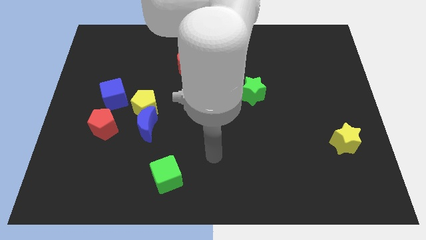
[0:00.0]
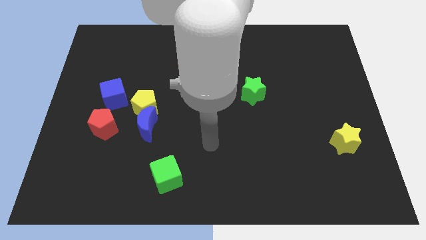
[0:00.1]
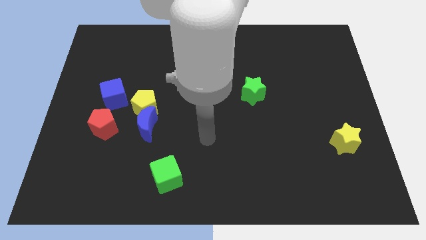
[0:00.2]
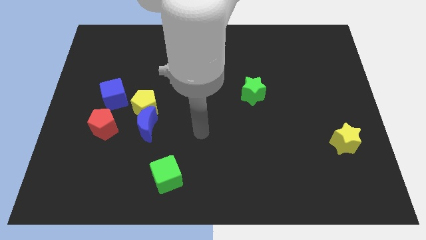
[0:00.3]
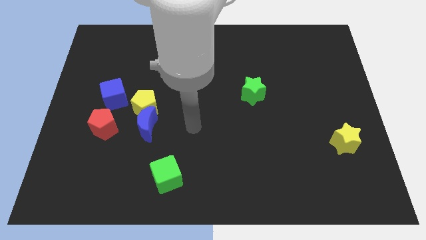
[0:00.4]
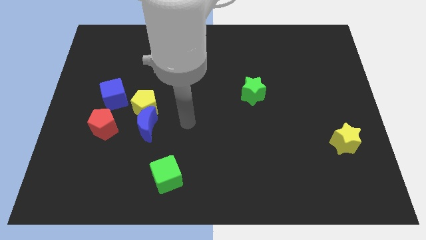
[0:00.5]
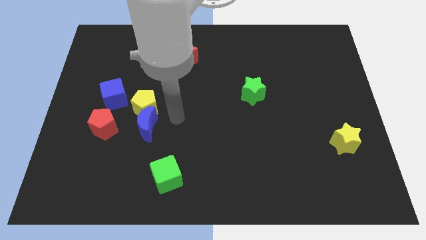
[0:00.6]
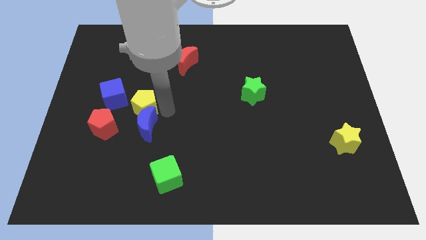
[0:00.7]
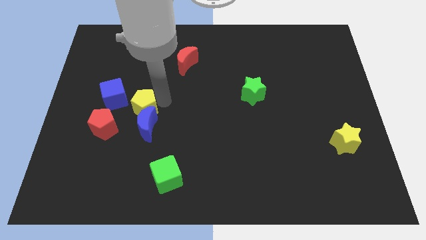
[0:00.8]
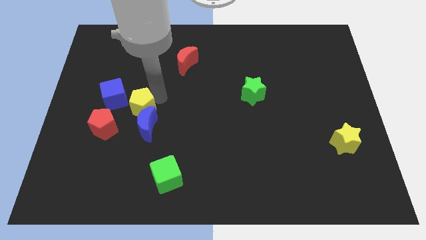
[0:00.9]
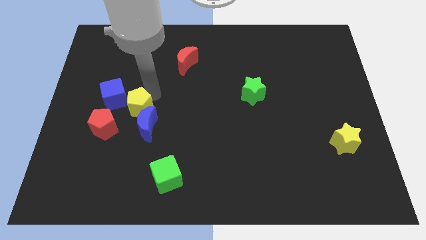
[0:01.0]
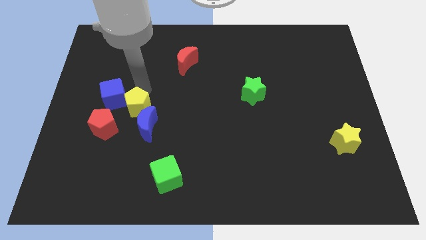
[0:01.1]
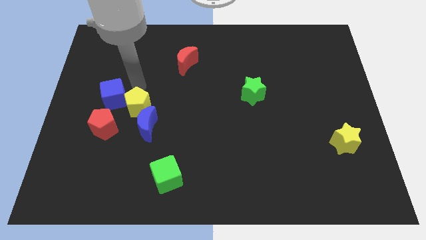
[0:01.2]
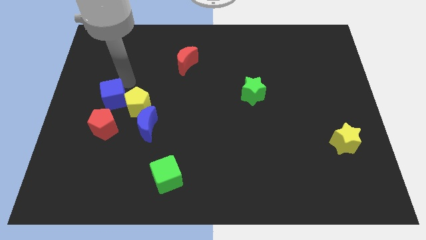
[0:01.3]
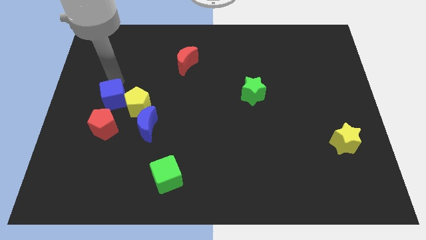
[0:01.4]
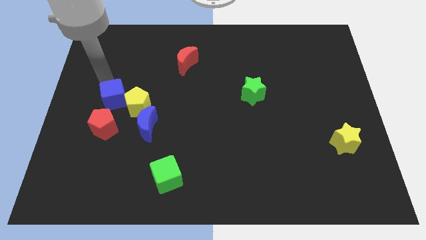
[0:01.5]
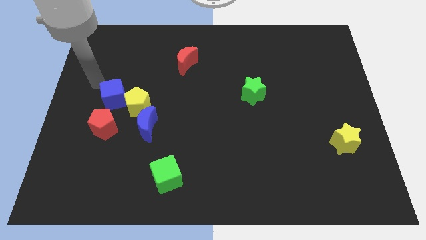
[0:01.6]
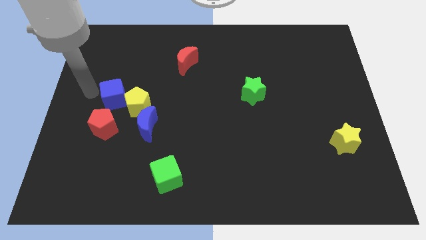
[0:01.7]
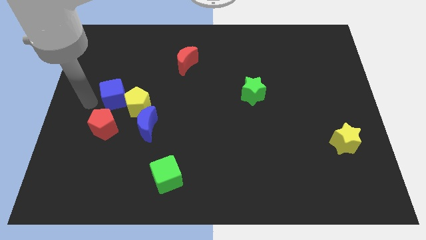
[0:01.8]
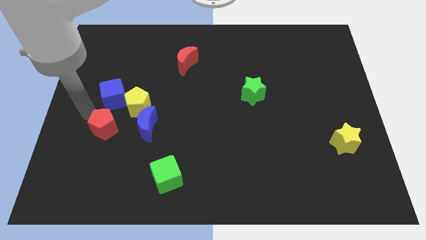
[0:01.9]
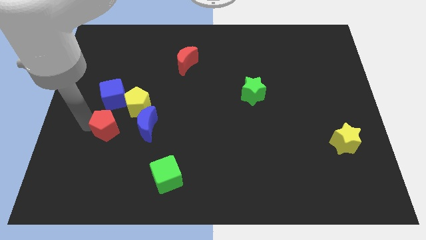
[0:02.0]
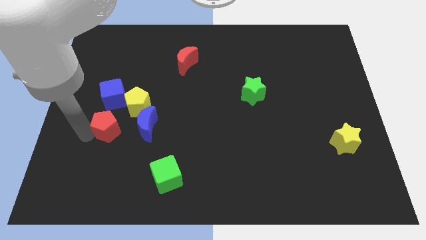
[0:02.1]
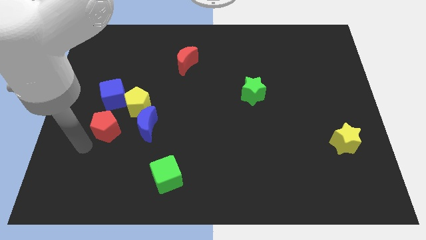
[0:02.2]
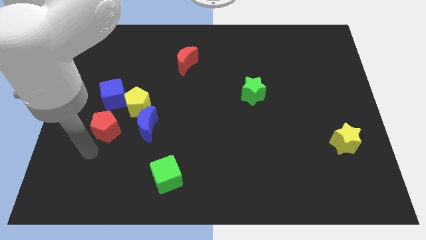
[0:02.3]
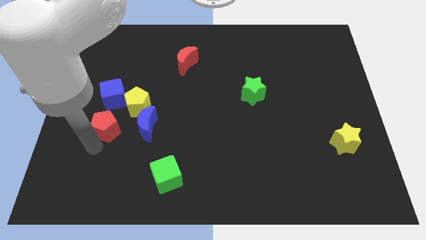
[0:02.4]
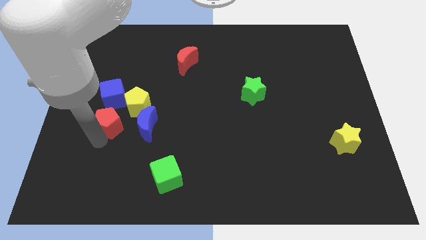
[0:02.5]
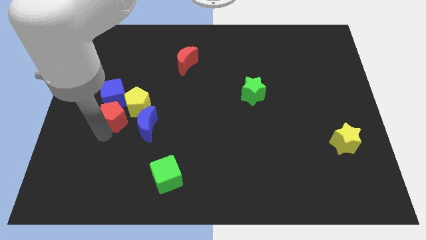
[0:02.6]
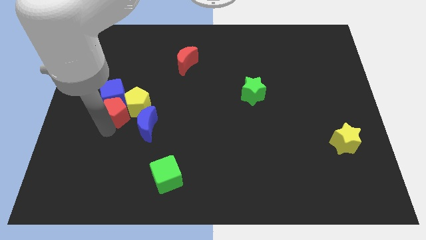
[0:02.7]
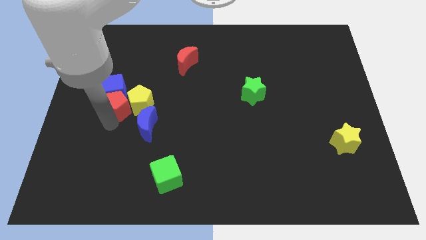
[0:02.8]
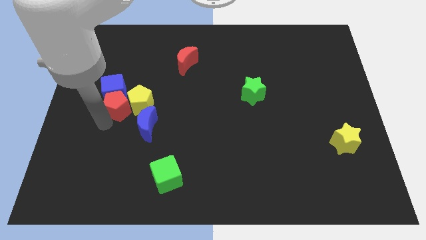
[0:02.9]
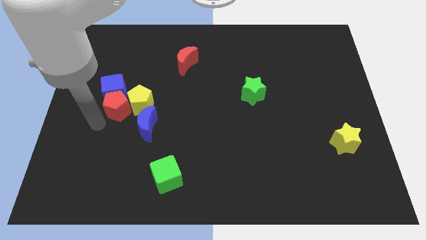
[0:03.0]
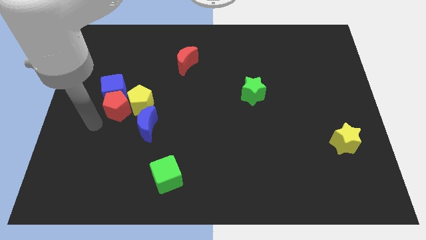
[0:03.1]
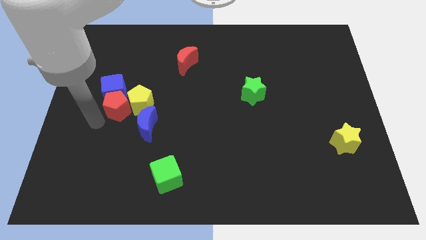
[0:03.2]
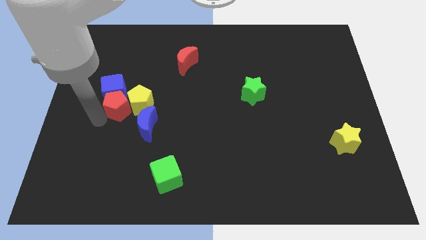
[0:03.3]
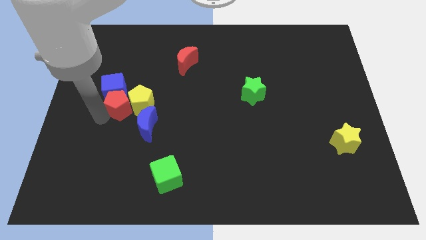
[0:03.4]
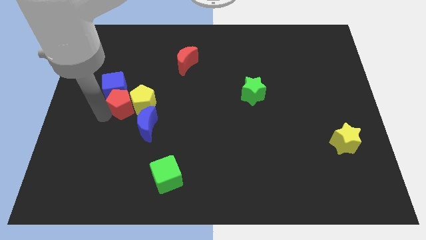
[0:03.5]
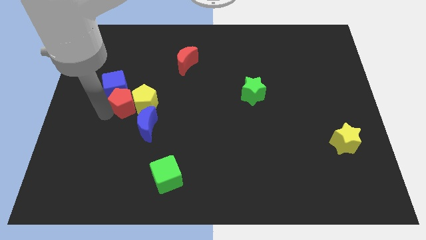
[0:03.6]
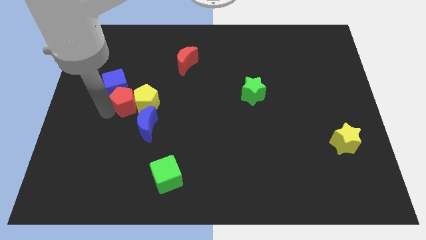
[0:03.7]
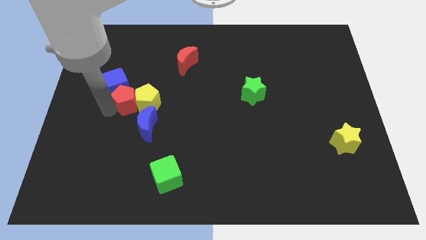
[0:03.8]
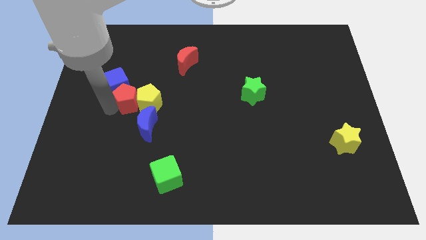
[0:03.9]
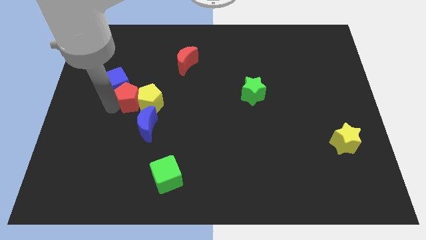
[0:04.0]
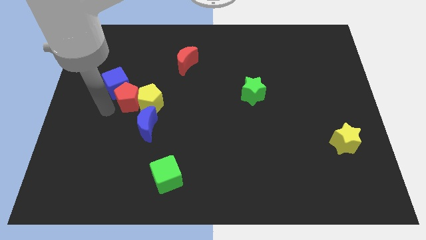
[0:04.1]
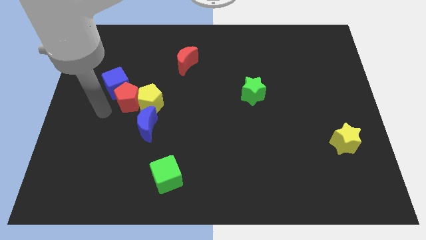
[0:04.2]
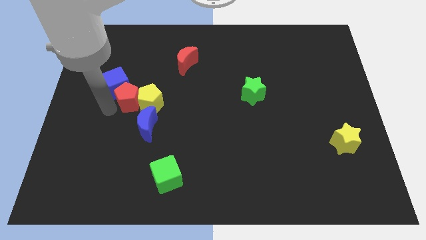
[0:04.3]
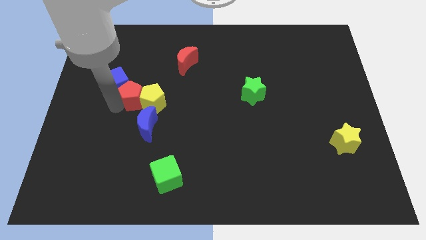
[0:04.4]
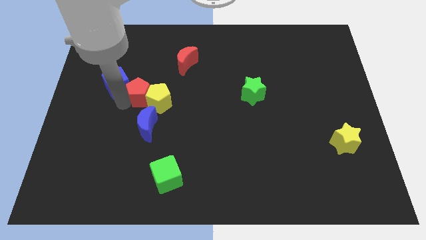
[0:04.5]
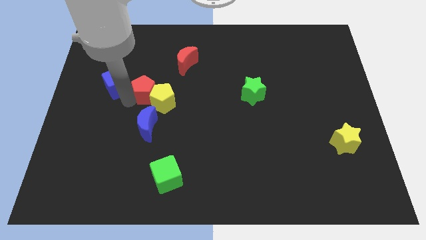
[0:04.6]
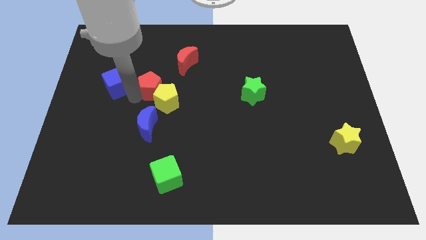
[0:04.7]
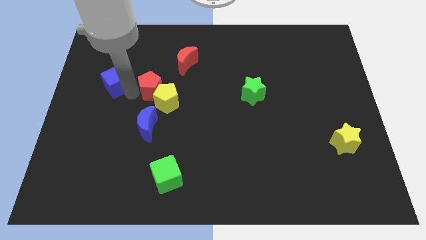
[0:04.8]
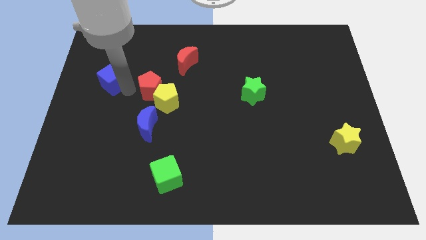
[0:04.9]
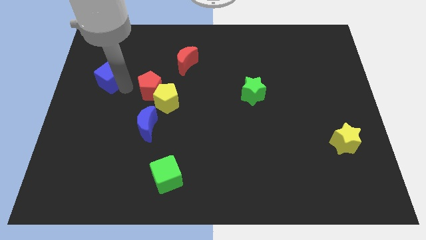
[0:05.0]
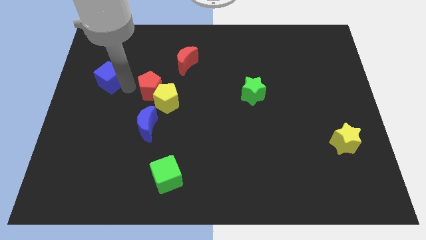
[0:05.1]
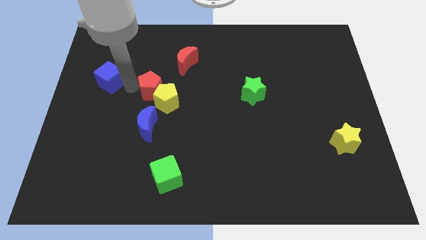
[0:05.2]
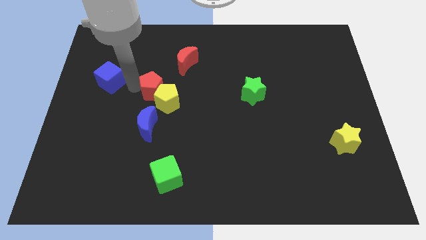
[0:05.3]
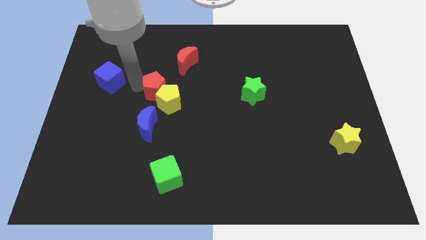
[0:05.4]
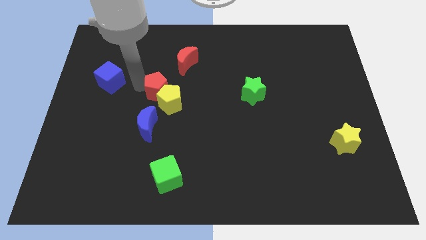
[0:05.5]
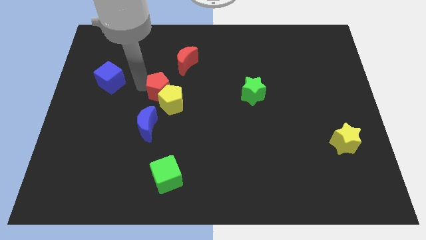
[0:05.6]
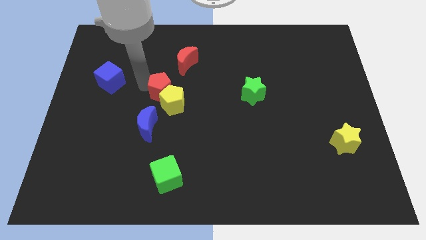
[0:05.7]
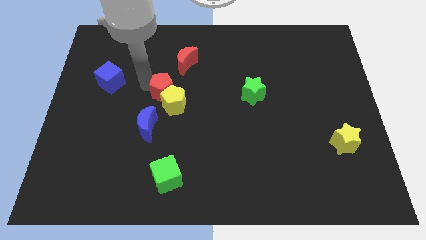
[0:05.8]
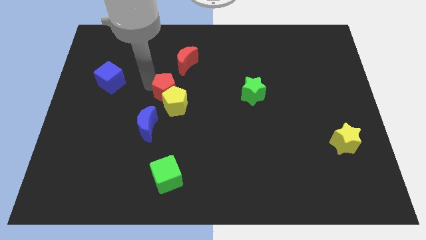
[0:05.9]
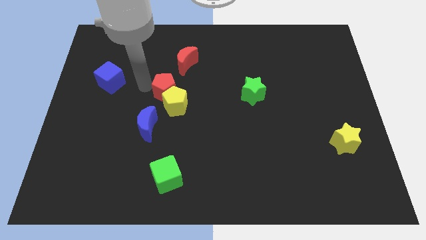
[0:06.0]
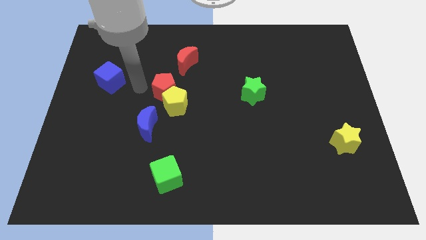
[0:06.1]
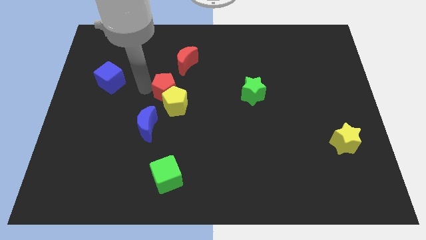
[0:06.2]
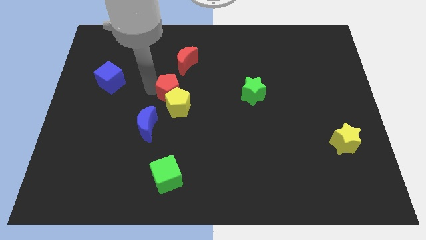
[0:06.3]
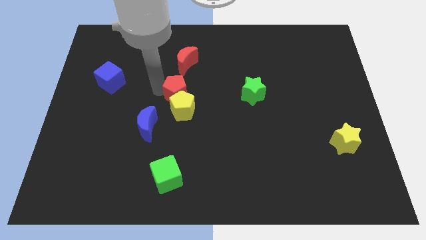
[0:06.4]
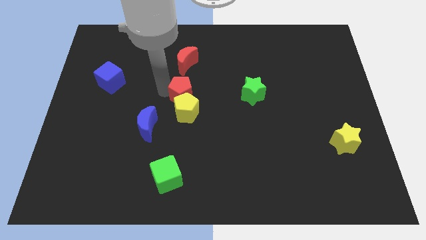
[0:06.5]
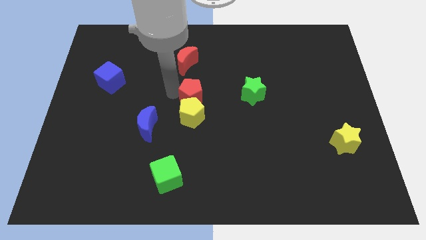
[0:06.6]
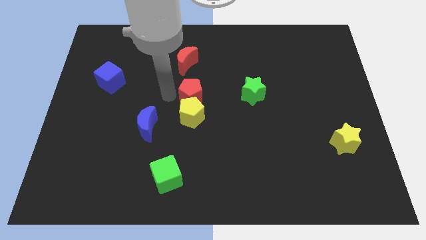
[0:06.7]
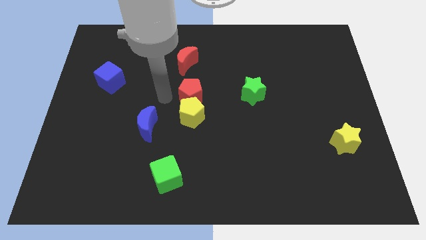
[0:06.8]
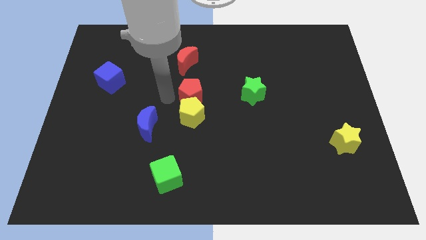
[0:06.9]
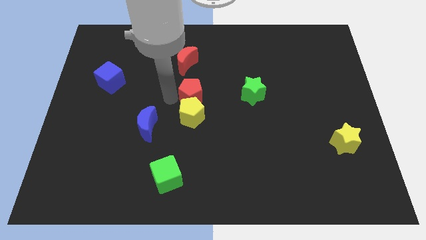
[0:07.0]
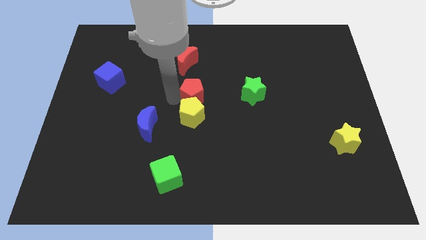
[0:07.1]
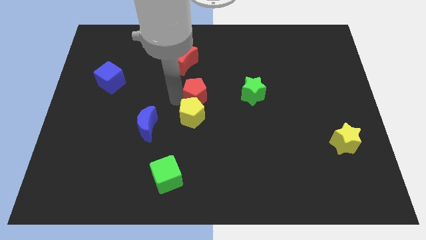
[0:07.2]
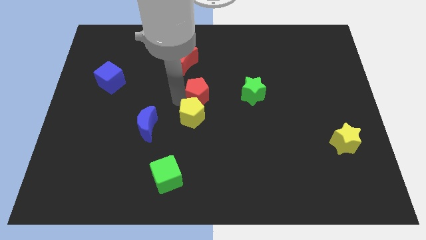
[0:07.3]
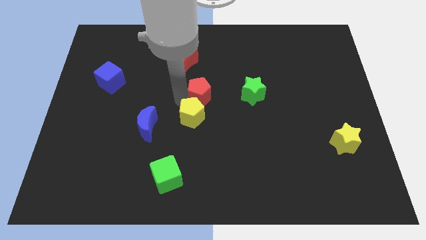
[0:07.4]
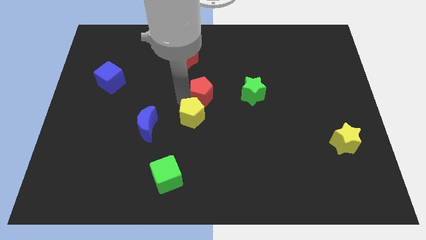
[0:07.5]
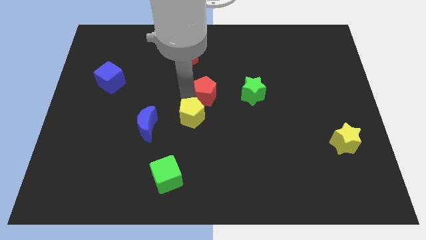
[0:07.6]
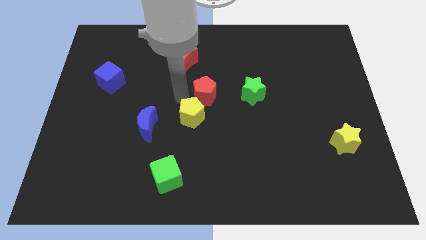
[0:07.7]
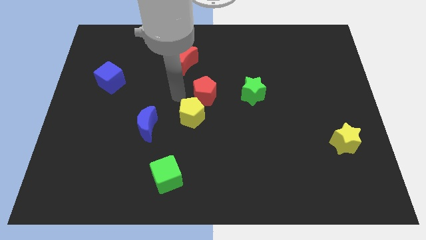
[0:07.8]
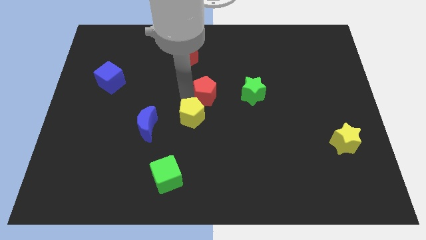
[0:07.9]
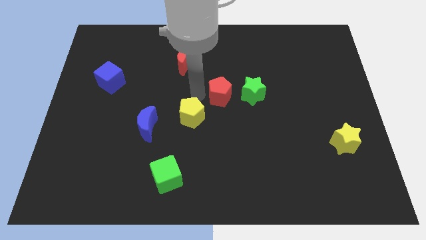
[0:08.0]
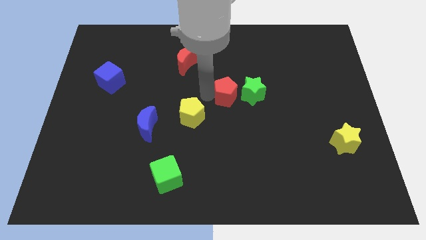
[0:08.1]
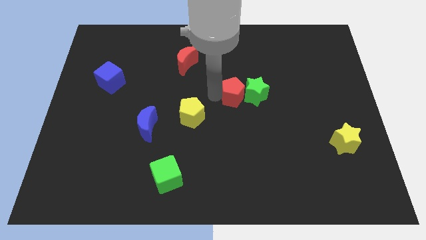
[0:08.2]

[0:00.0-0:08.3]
move the red pentagon towards the green star
